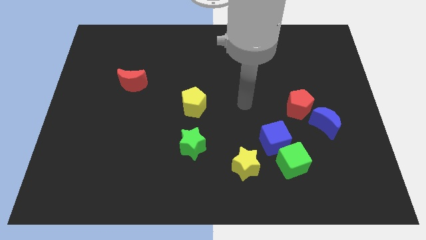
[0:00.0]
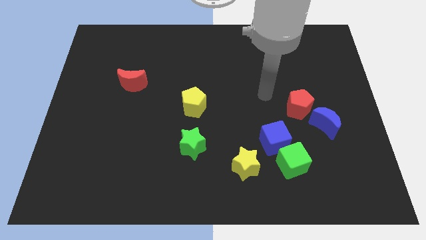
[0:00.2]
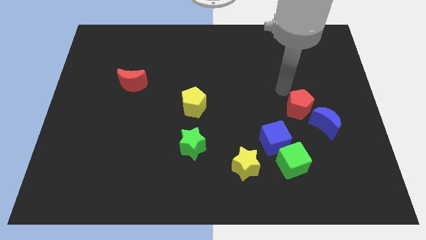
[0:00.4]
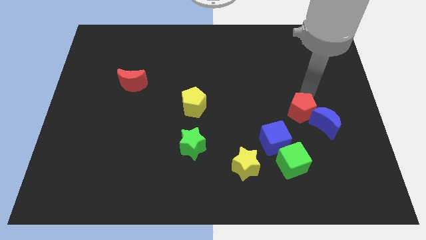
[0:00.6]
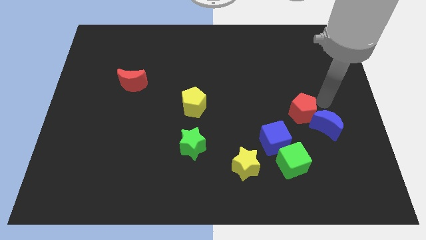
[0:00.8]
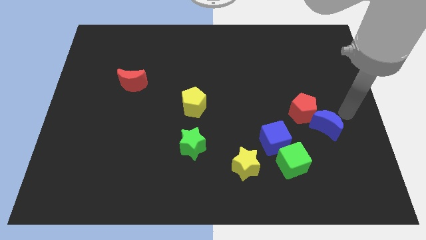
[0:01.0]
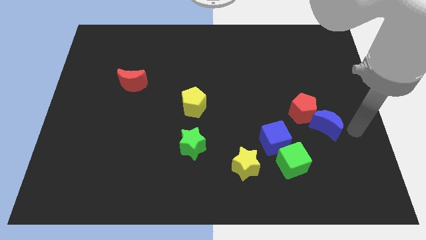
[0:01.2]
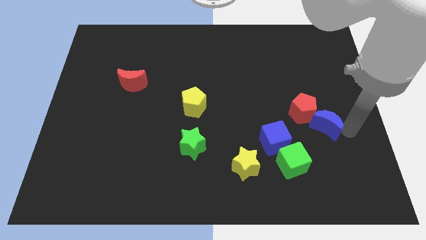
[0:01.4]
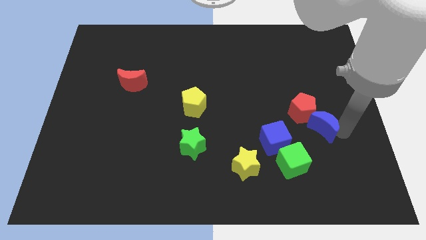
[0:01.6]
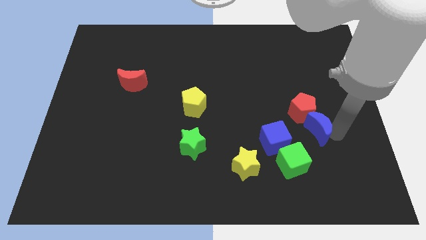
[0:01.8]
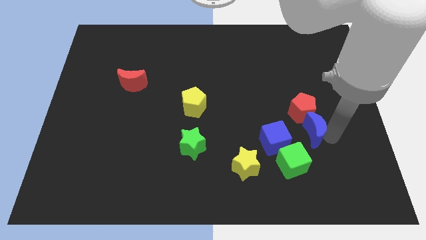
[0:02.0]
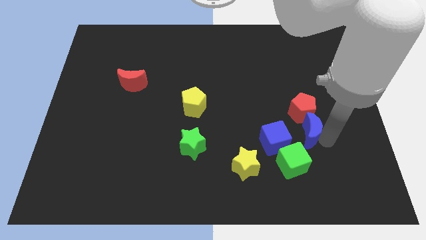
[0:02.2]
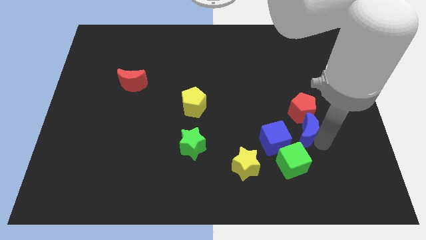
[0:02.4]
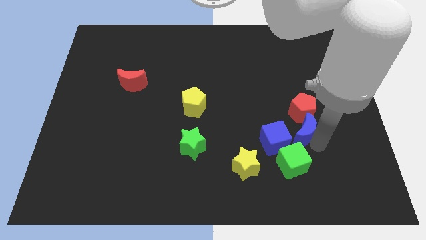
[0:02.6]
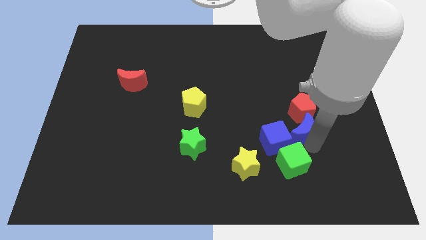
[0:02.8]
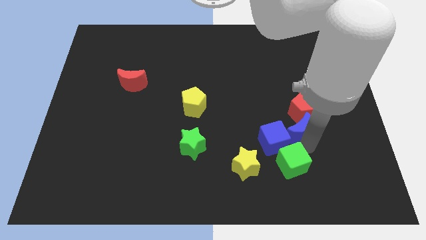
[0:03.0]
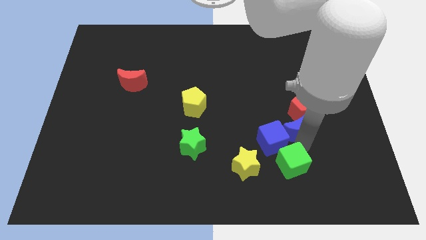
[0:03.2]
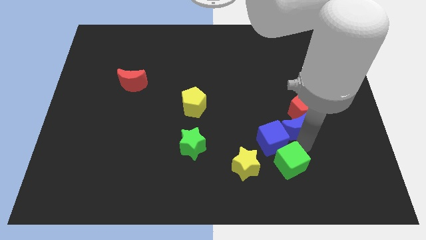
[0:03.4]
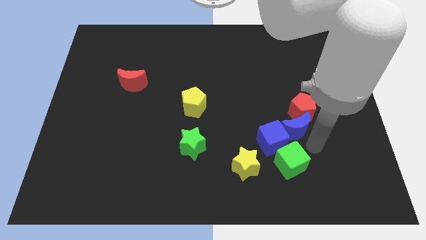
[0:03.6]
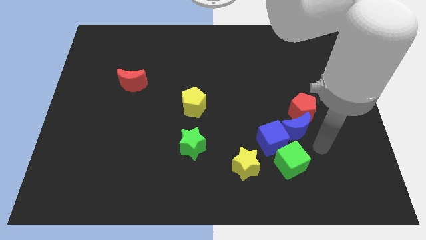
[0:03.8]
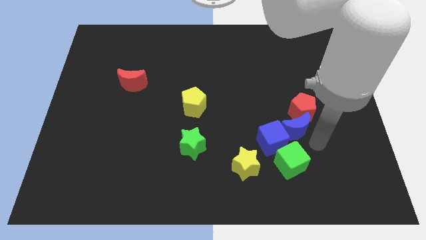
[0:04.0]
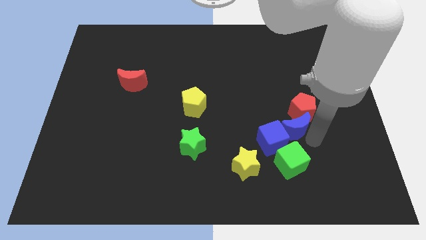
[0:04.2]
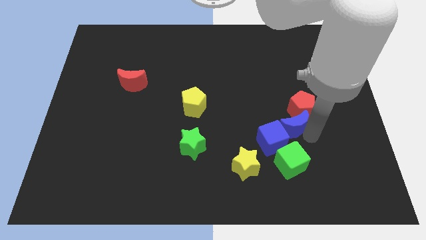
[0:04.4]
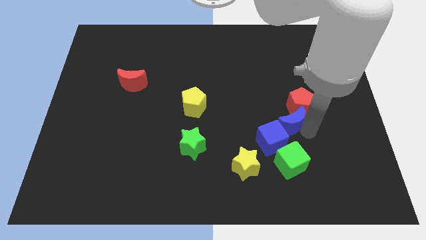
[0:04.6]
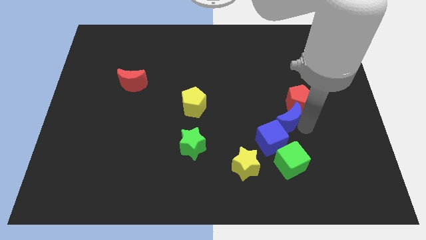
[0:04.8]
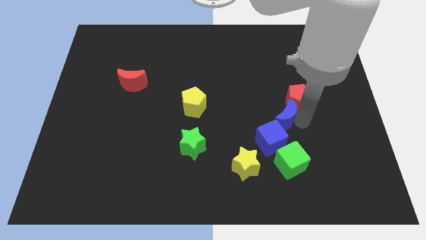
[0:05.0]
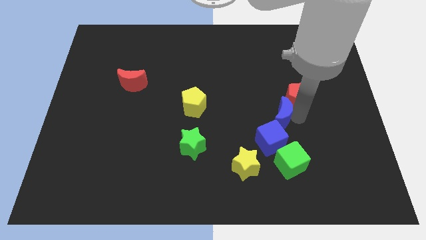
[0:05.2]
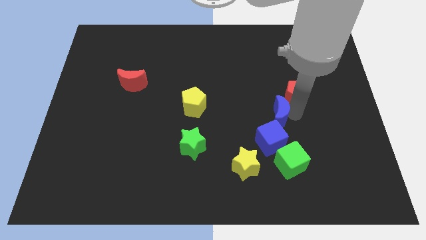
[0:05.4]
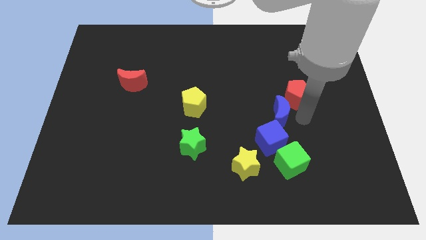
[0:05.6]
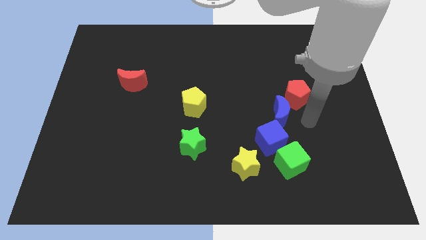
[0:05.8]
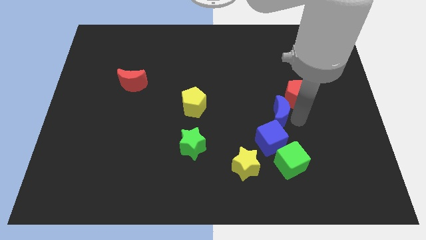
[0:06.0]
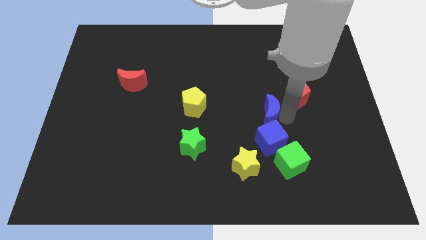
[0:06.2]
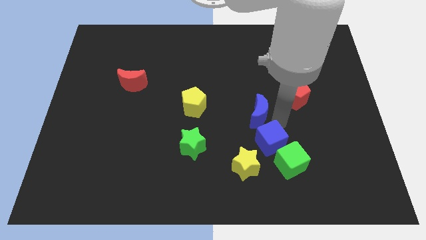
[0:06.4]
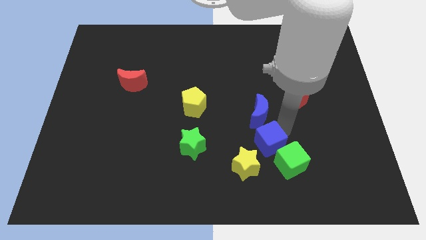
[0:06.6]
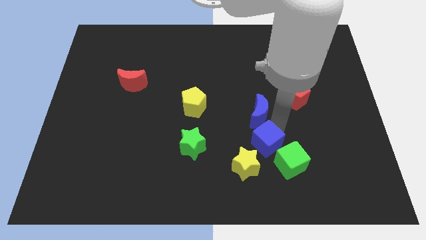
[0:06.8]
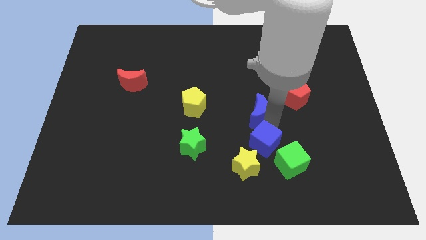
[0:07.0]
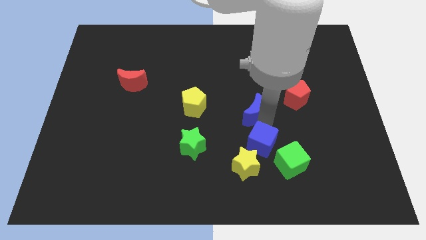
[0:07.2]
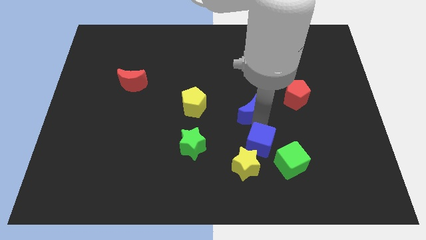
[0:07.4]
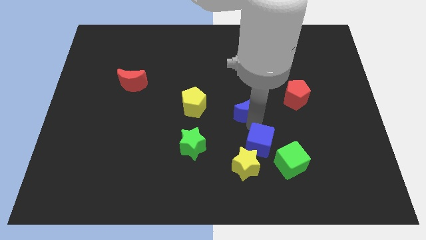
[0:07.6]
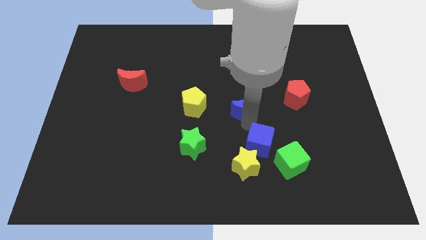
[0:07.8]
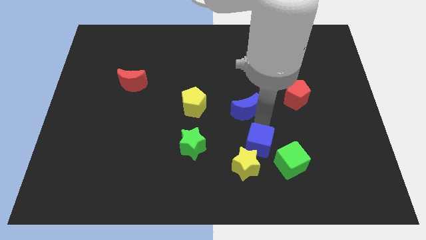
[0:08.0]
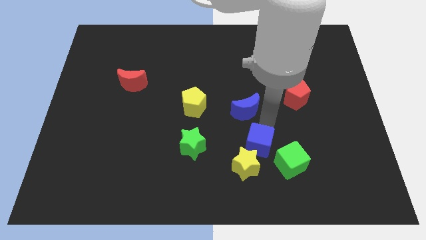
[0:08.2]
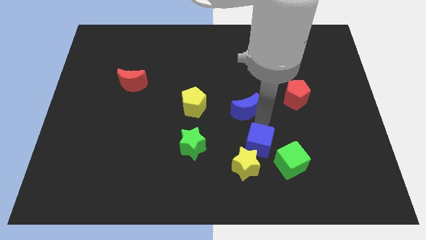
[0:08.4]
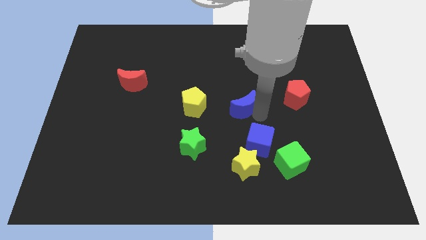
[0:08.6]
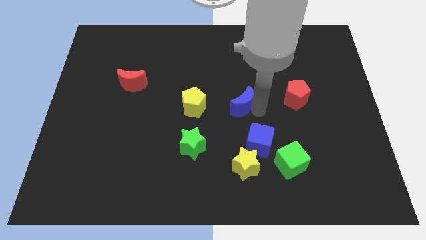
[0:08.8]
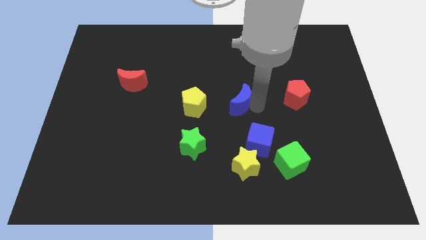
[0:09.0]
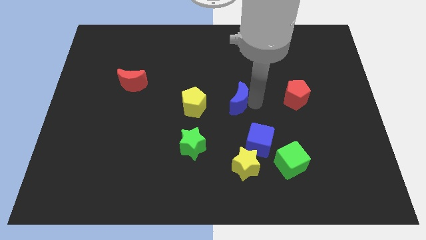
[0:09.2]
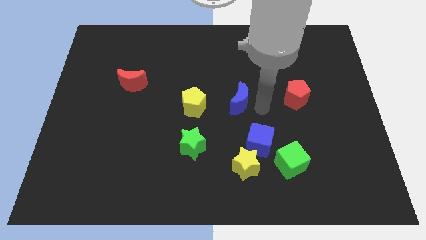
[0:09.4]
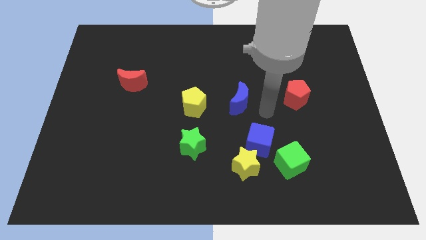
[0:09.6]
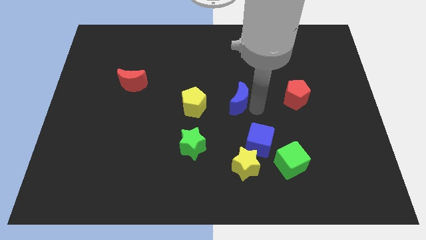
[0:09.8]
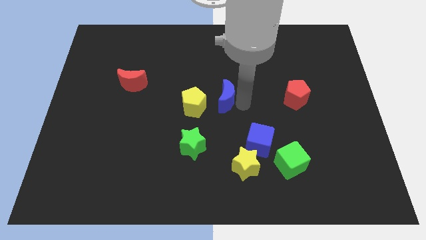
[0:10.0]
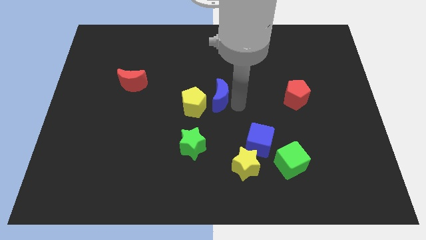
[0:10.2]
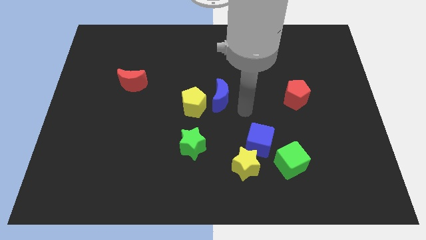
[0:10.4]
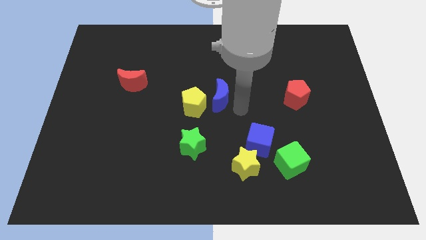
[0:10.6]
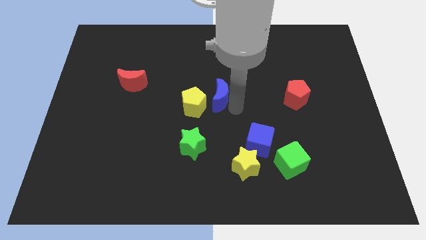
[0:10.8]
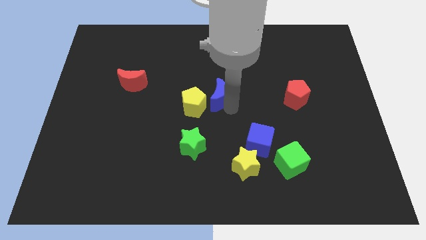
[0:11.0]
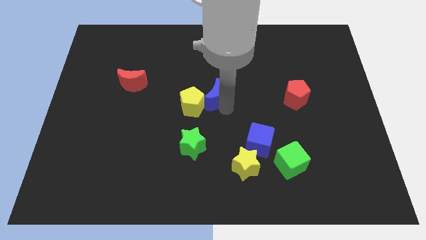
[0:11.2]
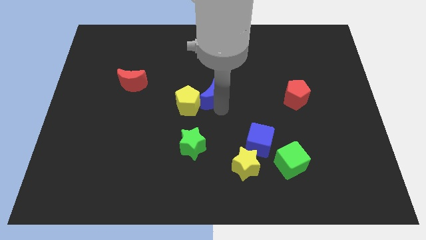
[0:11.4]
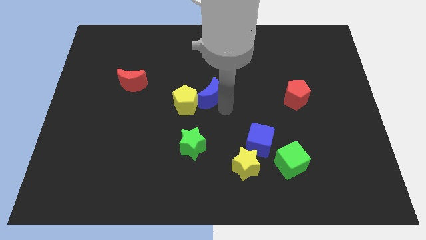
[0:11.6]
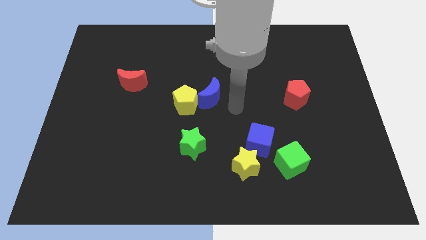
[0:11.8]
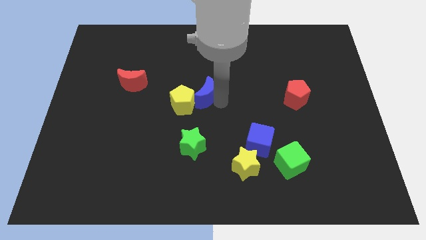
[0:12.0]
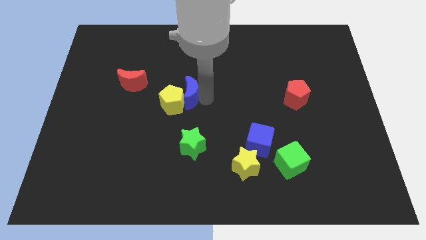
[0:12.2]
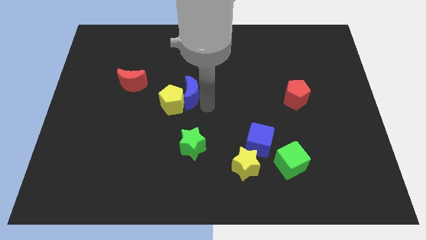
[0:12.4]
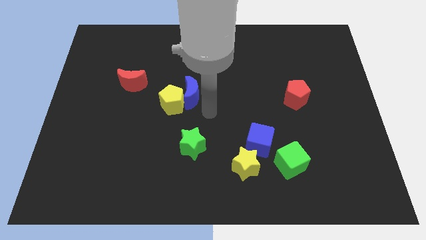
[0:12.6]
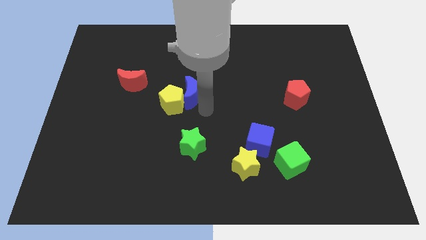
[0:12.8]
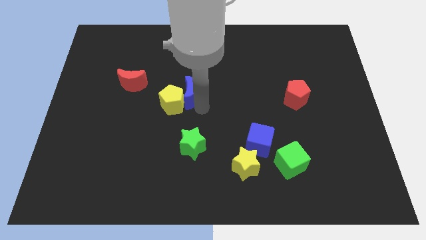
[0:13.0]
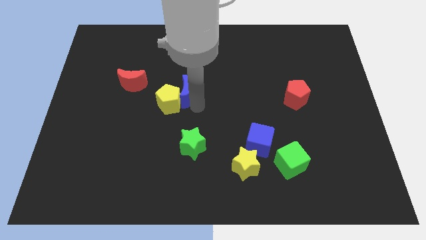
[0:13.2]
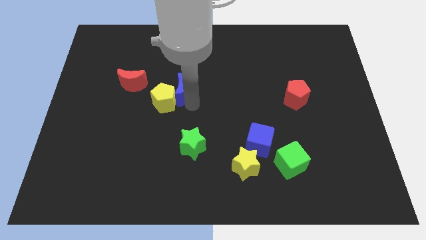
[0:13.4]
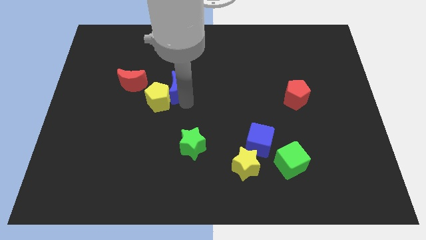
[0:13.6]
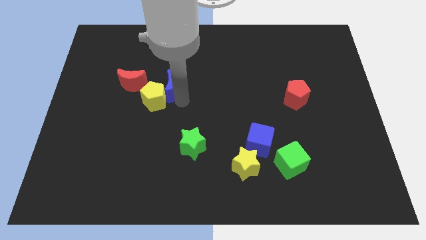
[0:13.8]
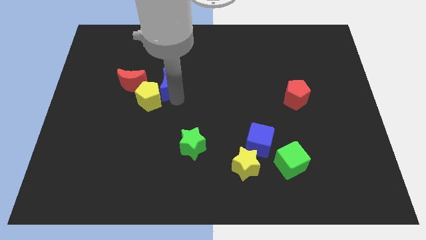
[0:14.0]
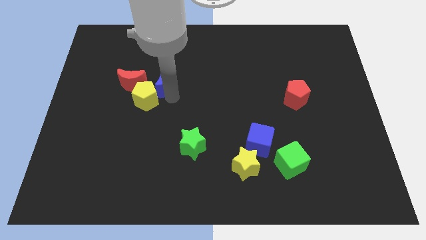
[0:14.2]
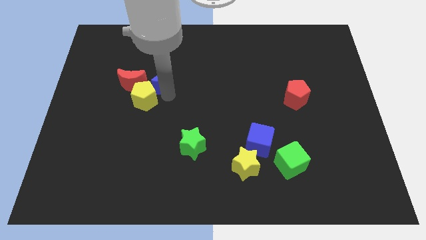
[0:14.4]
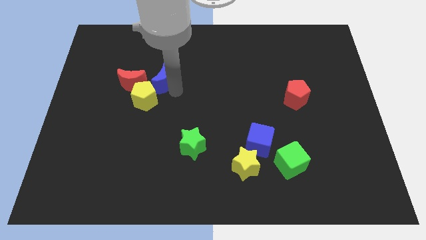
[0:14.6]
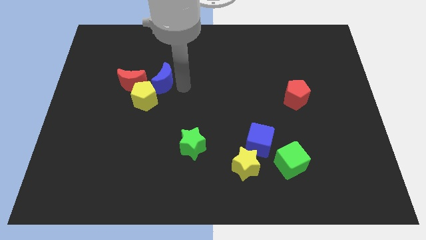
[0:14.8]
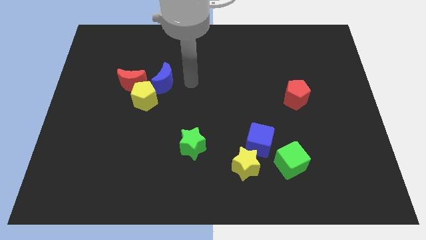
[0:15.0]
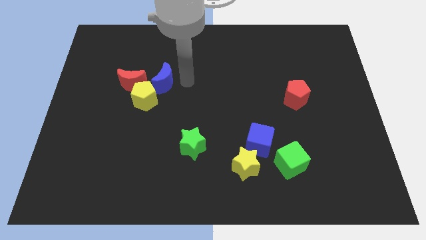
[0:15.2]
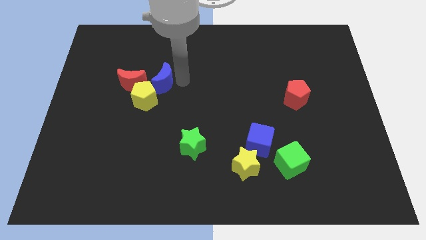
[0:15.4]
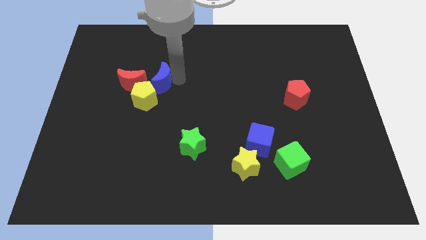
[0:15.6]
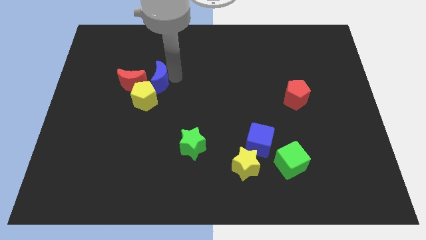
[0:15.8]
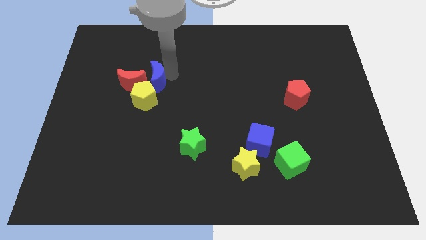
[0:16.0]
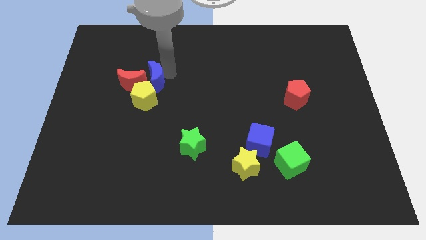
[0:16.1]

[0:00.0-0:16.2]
move the blue moon close to the red moon
